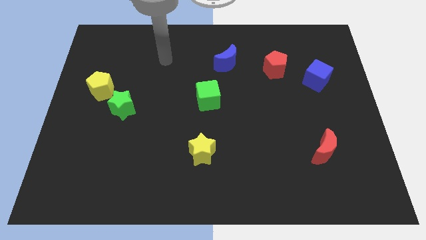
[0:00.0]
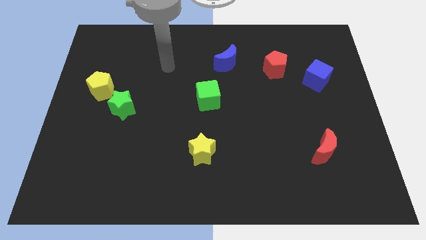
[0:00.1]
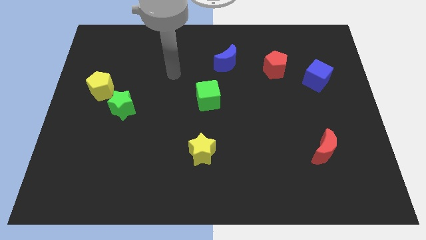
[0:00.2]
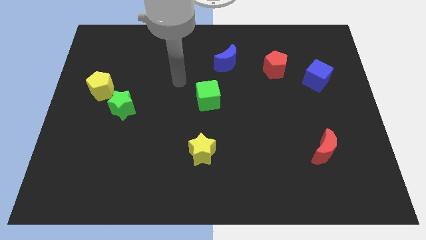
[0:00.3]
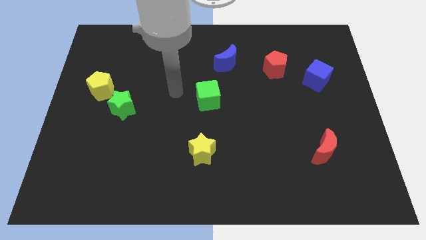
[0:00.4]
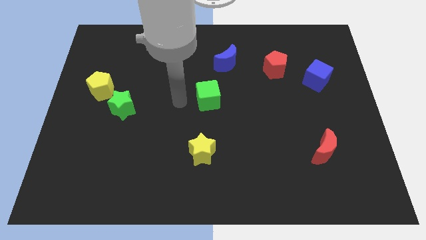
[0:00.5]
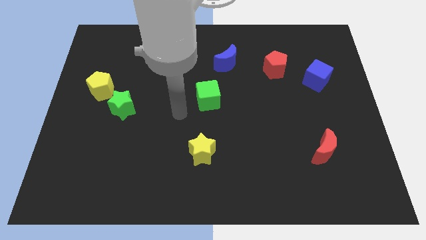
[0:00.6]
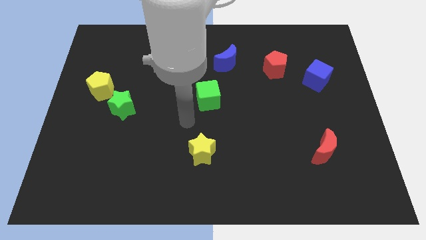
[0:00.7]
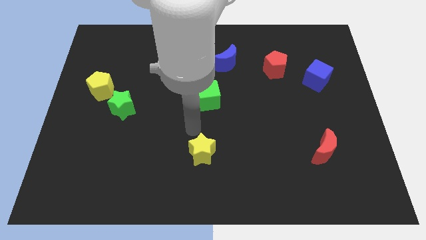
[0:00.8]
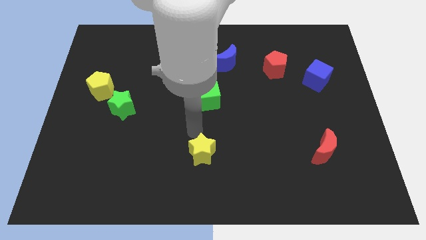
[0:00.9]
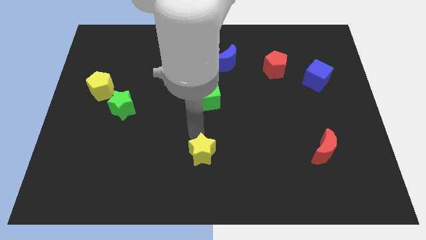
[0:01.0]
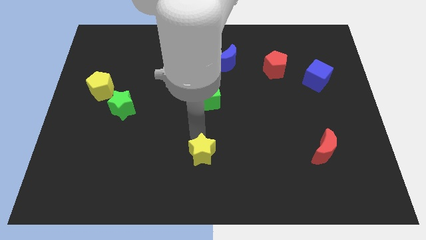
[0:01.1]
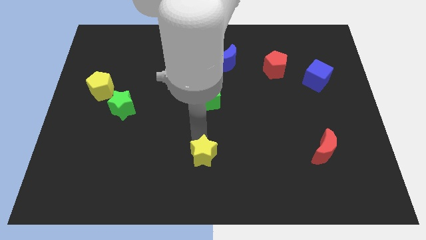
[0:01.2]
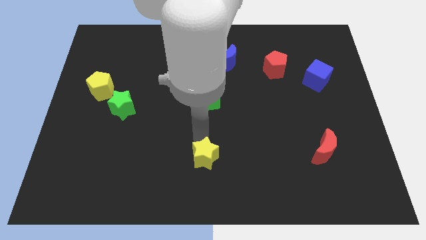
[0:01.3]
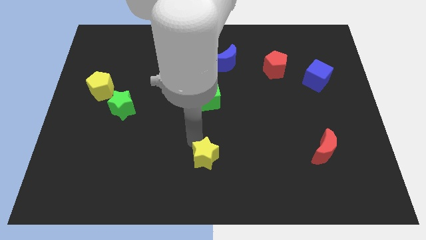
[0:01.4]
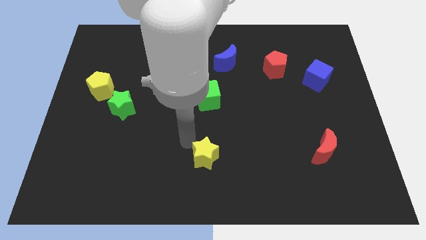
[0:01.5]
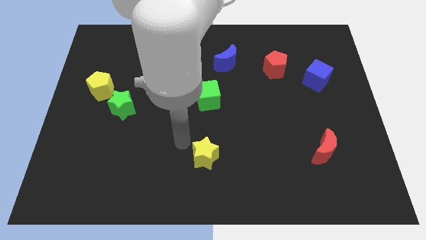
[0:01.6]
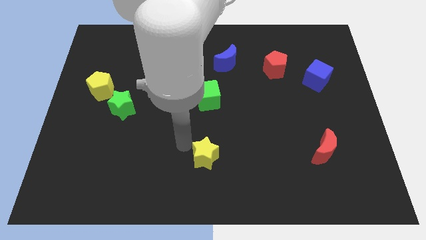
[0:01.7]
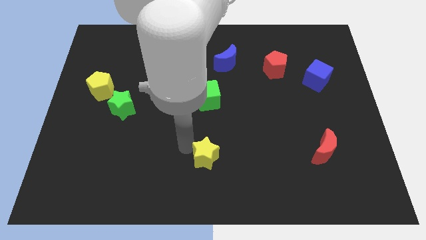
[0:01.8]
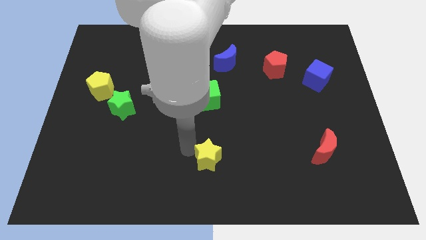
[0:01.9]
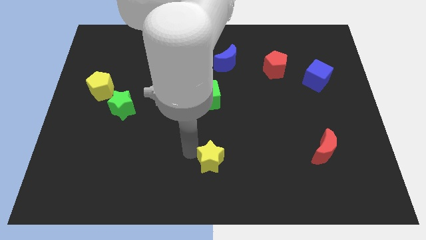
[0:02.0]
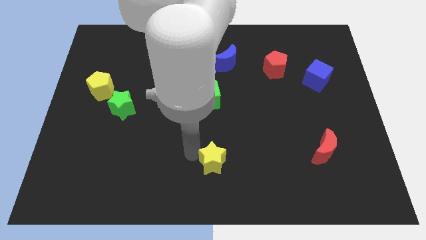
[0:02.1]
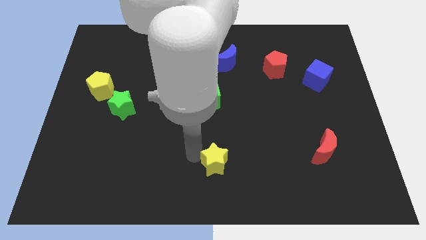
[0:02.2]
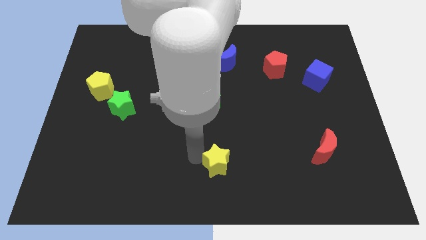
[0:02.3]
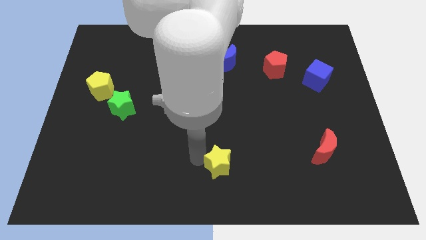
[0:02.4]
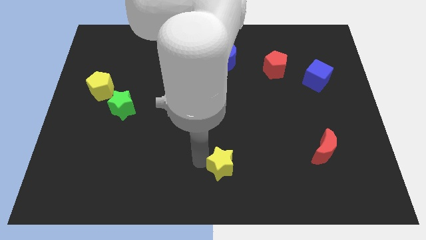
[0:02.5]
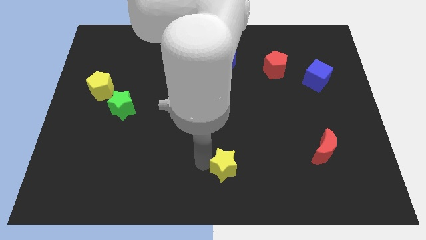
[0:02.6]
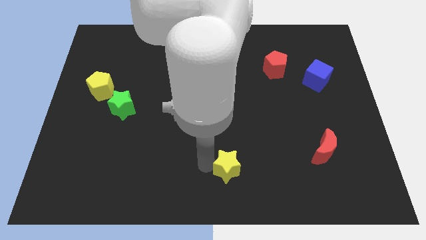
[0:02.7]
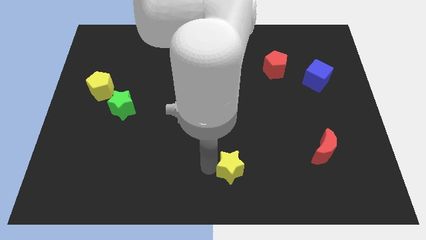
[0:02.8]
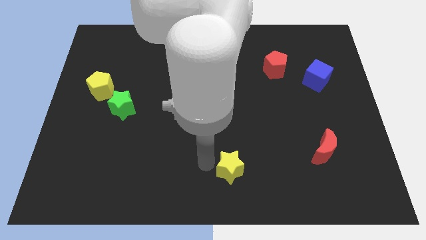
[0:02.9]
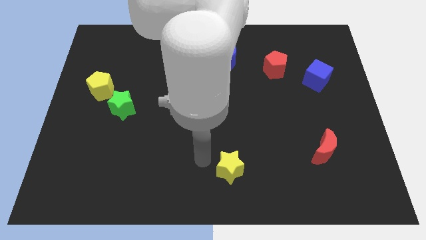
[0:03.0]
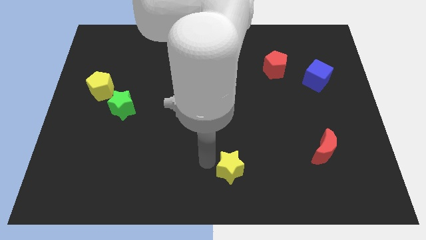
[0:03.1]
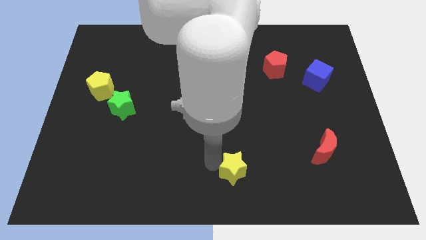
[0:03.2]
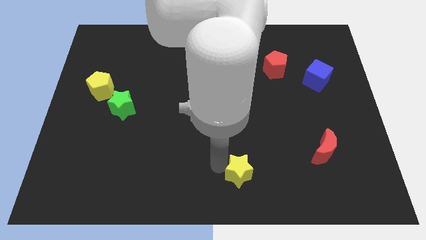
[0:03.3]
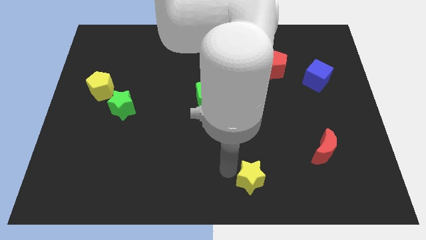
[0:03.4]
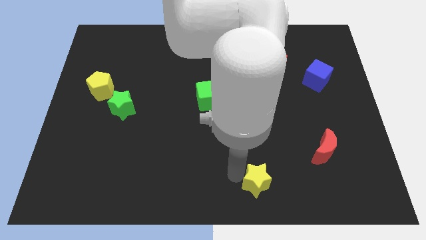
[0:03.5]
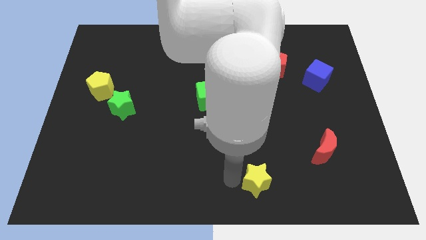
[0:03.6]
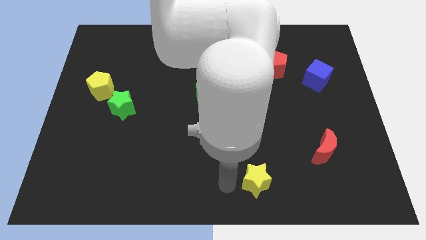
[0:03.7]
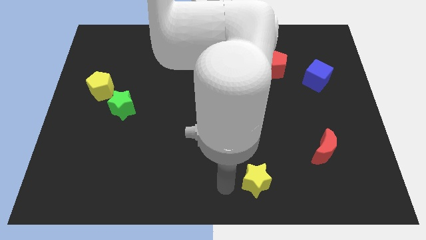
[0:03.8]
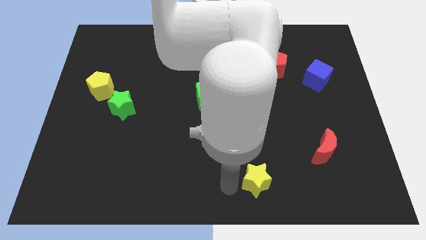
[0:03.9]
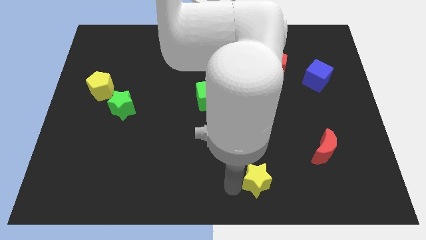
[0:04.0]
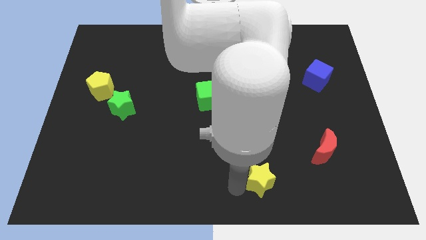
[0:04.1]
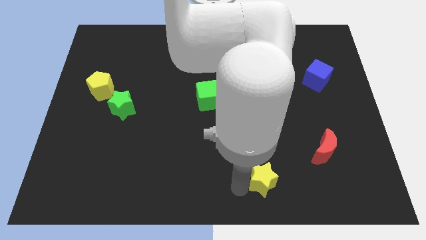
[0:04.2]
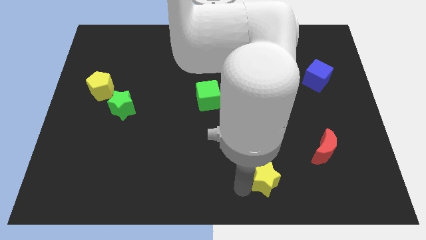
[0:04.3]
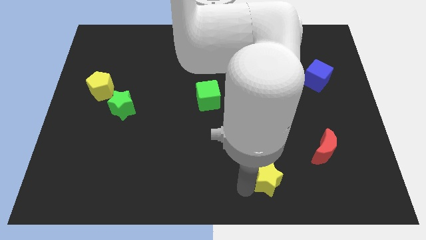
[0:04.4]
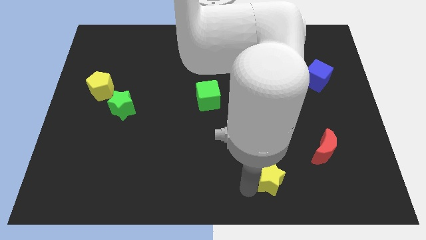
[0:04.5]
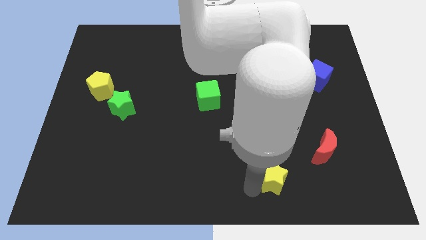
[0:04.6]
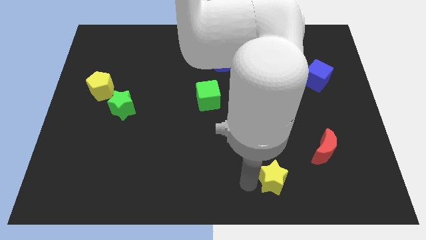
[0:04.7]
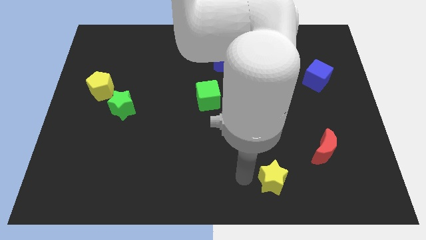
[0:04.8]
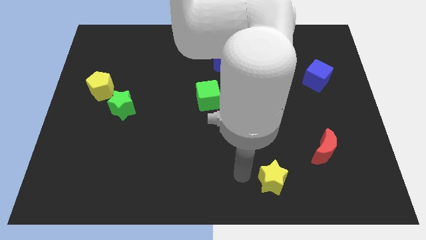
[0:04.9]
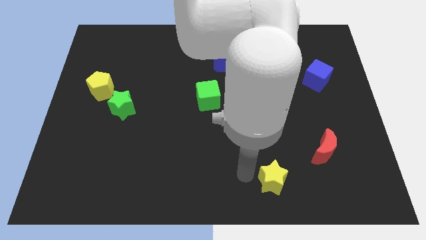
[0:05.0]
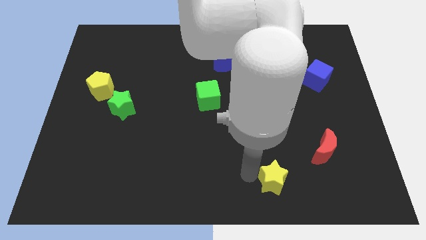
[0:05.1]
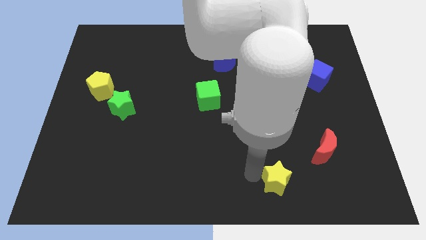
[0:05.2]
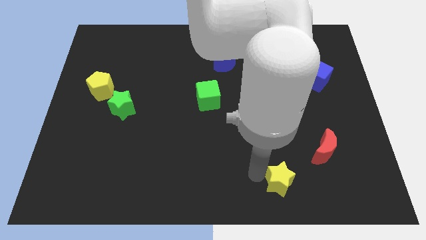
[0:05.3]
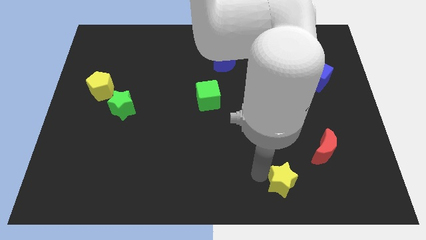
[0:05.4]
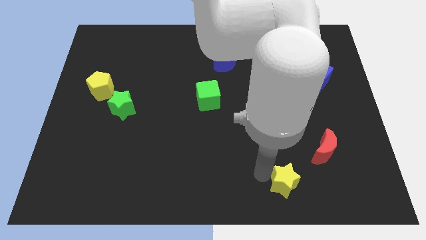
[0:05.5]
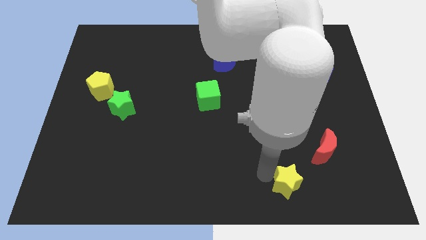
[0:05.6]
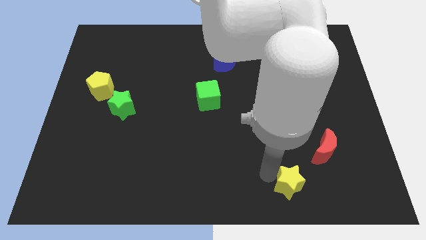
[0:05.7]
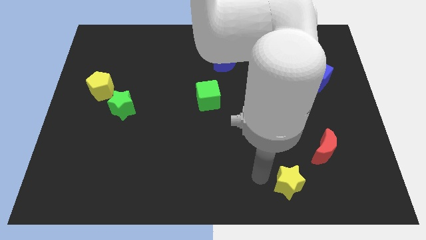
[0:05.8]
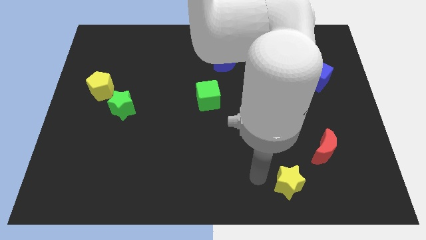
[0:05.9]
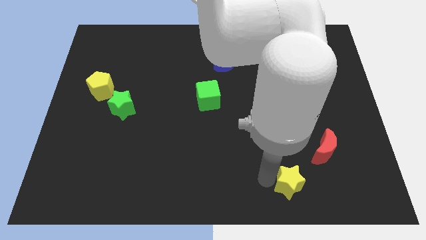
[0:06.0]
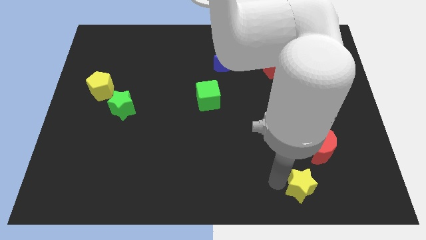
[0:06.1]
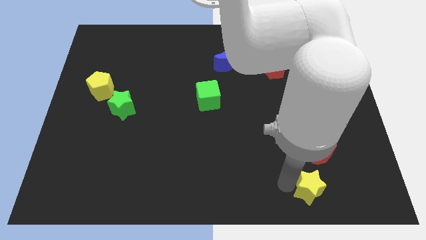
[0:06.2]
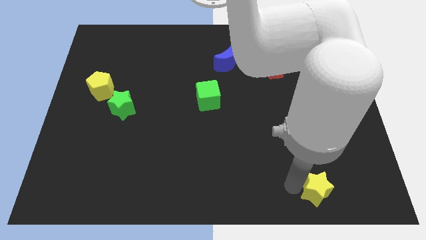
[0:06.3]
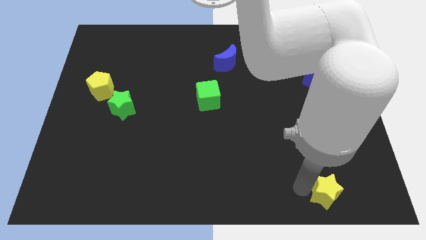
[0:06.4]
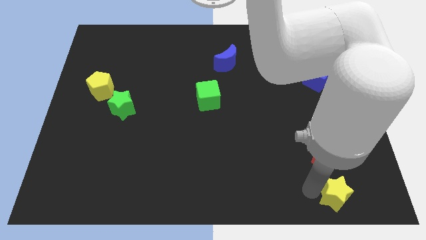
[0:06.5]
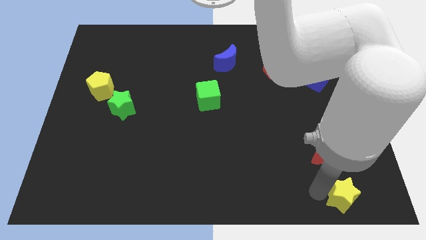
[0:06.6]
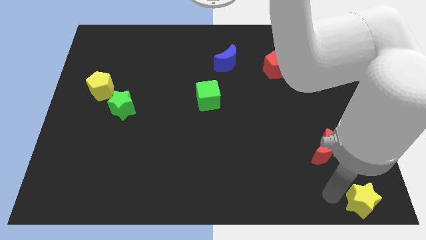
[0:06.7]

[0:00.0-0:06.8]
move the yellow star to the bottom right of the board
